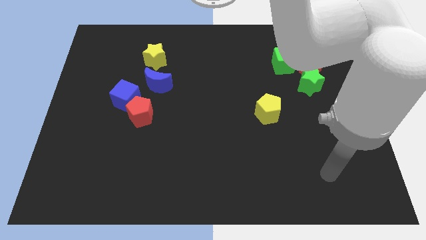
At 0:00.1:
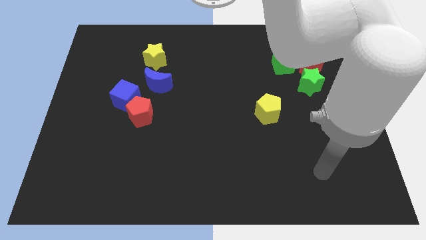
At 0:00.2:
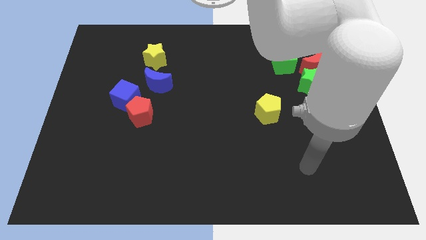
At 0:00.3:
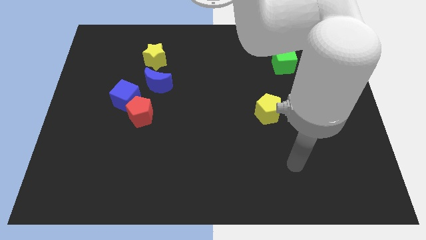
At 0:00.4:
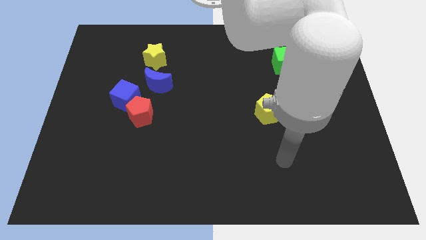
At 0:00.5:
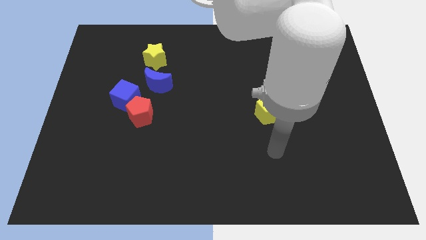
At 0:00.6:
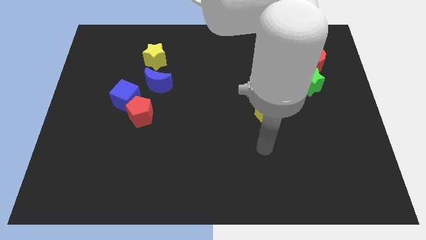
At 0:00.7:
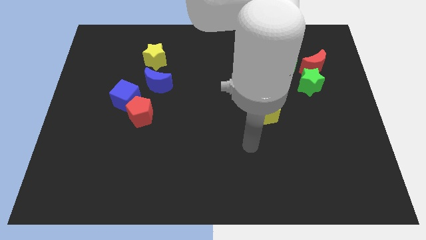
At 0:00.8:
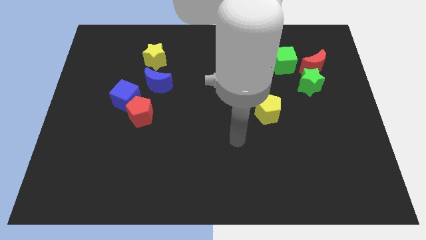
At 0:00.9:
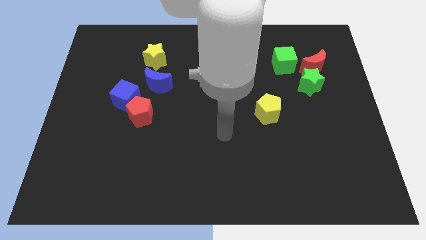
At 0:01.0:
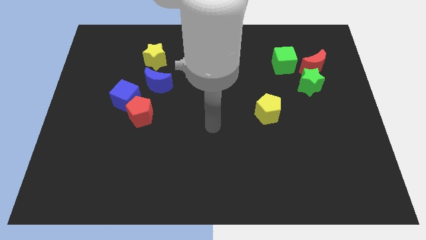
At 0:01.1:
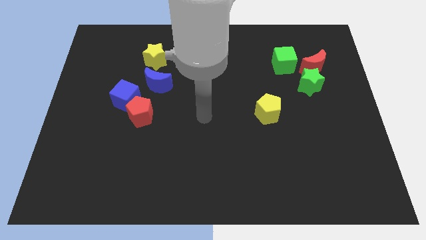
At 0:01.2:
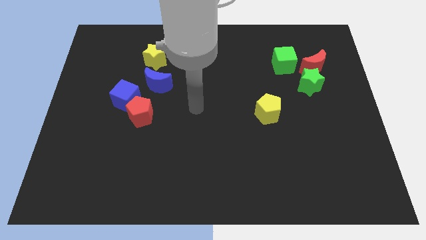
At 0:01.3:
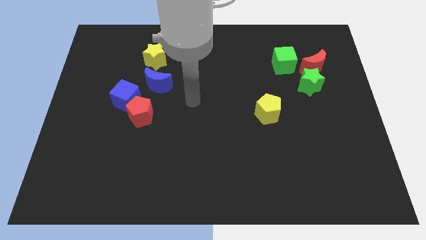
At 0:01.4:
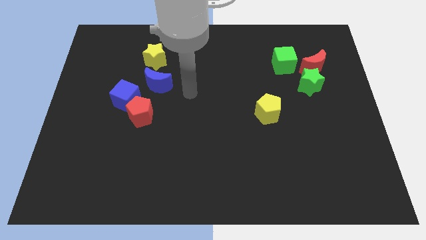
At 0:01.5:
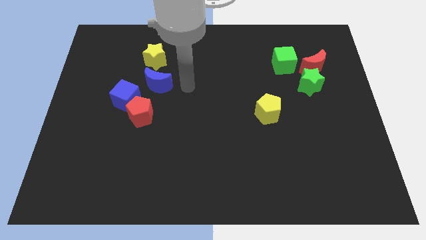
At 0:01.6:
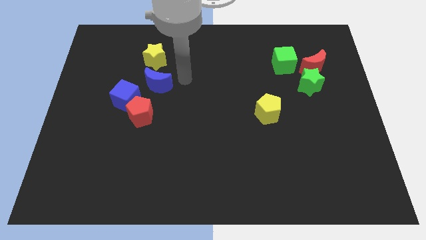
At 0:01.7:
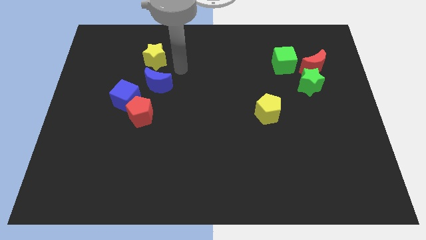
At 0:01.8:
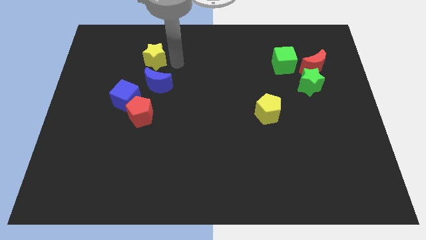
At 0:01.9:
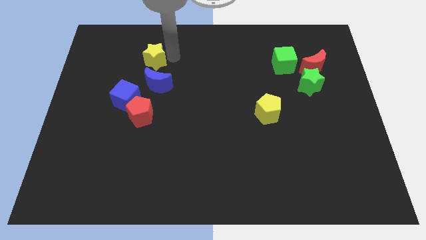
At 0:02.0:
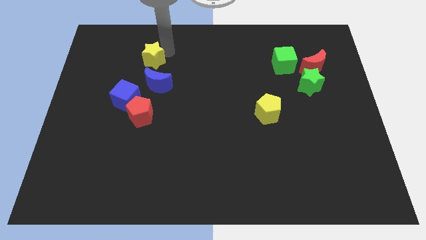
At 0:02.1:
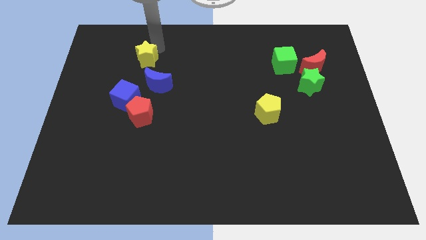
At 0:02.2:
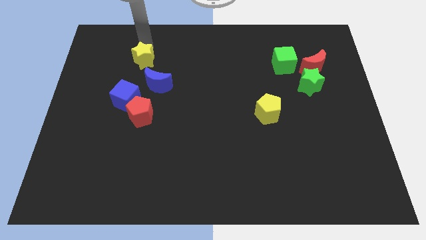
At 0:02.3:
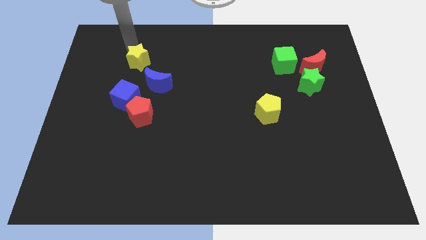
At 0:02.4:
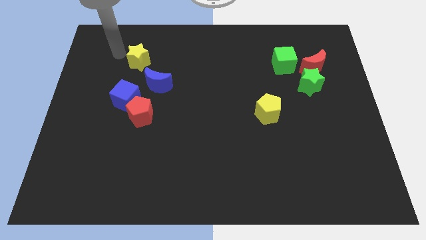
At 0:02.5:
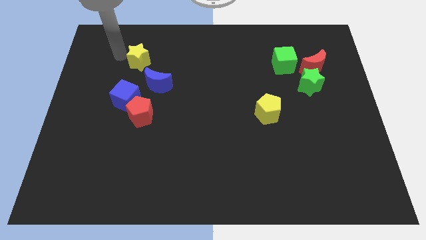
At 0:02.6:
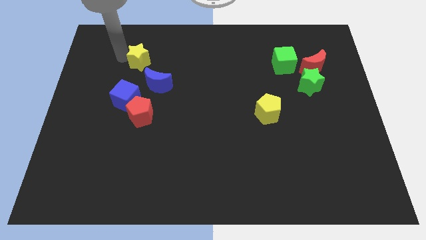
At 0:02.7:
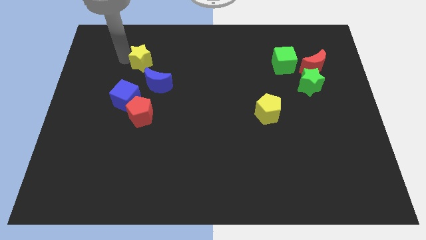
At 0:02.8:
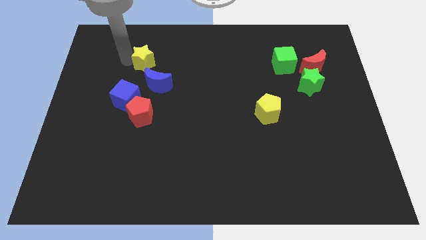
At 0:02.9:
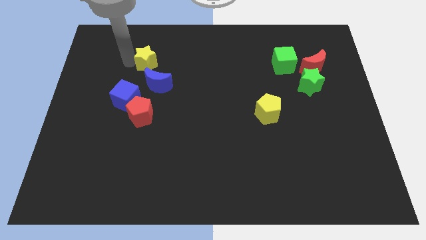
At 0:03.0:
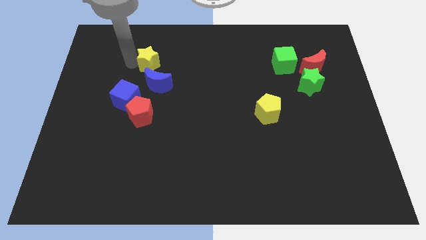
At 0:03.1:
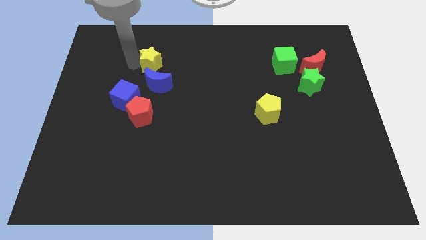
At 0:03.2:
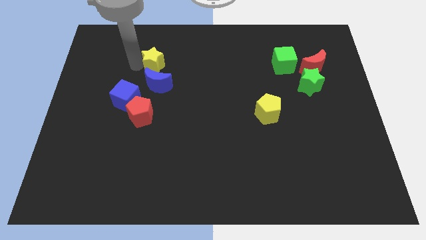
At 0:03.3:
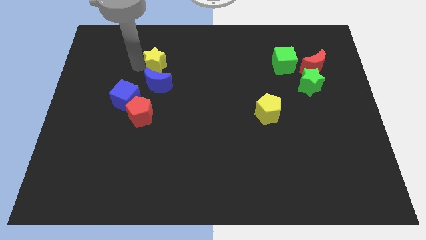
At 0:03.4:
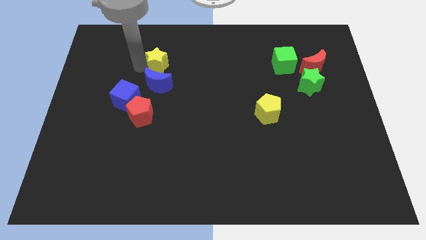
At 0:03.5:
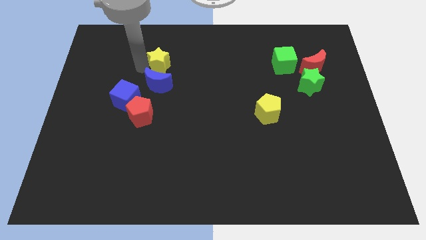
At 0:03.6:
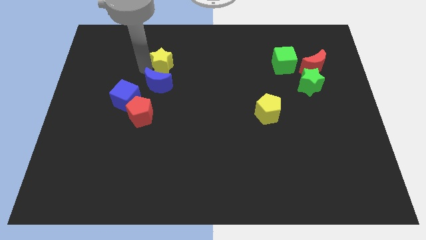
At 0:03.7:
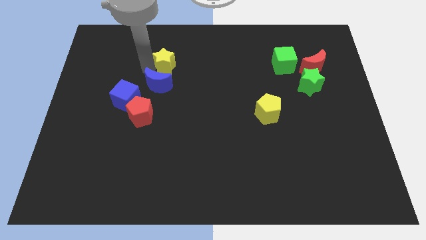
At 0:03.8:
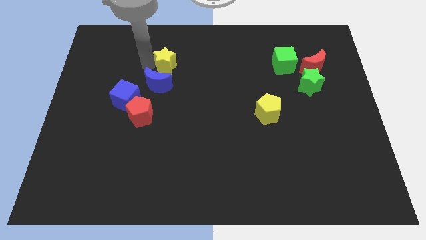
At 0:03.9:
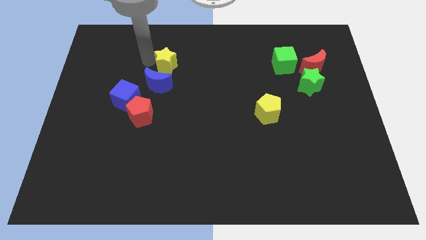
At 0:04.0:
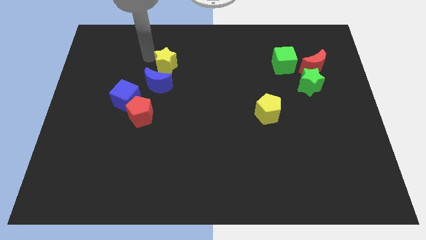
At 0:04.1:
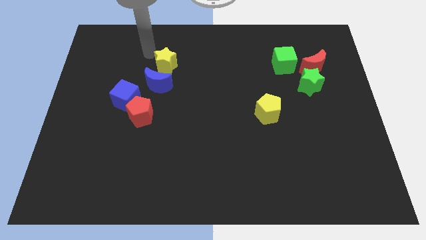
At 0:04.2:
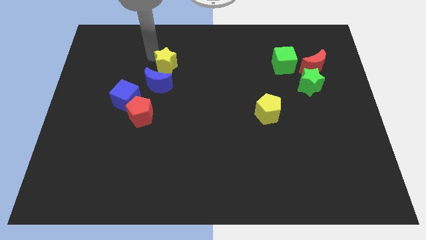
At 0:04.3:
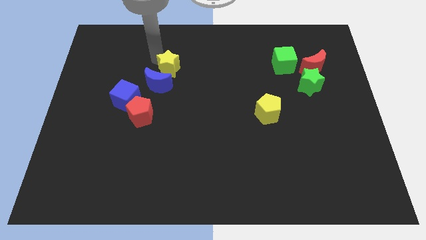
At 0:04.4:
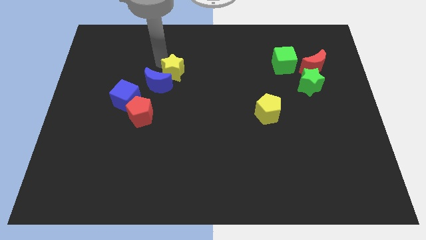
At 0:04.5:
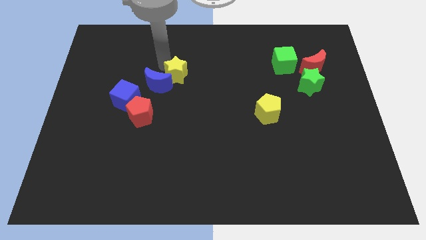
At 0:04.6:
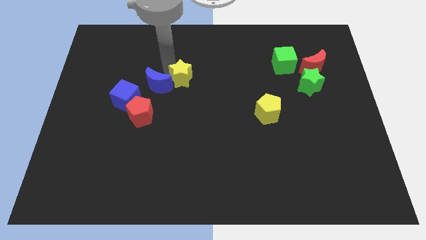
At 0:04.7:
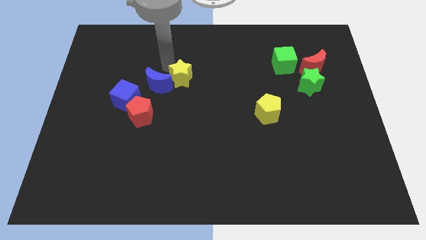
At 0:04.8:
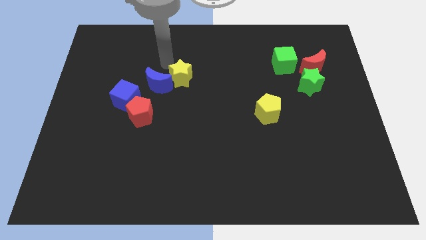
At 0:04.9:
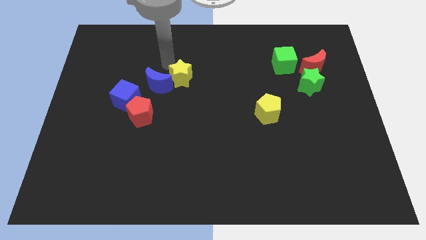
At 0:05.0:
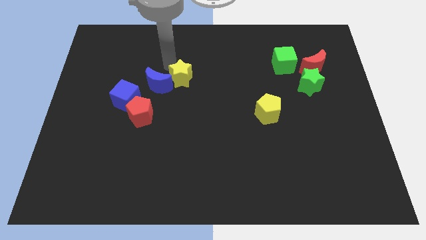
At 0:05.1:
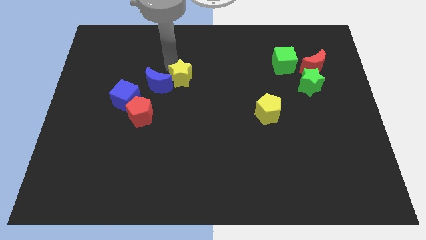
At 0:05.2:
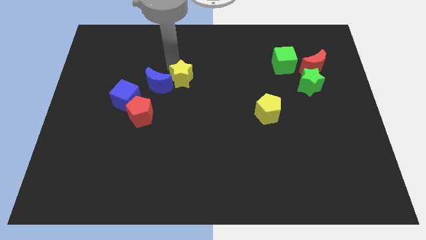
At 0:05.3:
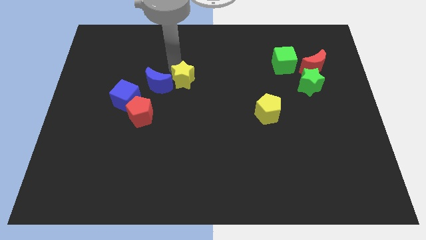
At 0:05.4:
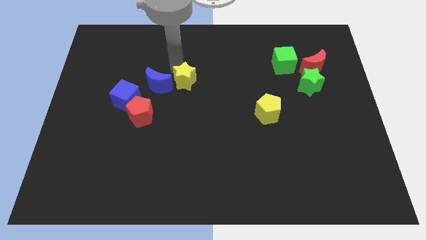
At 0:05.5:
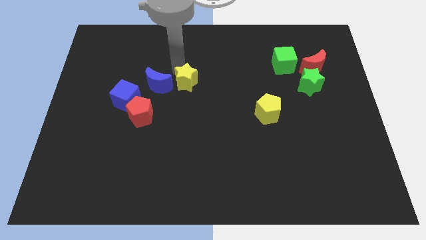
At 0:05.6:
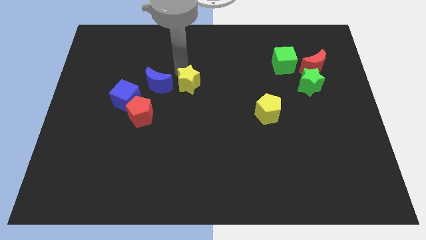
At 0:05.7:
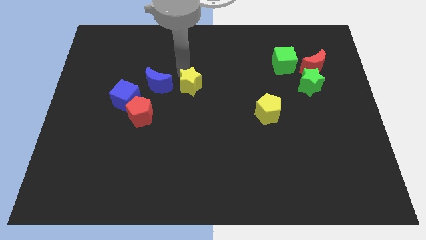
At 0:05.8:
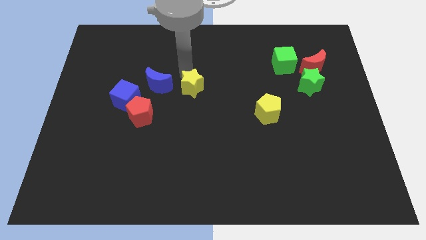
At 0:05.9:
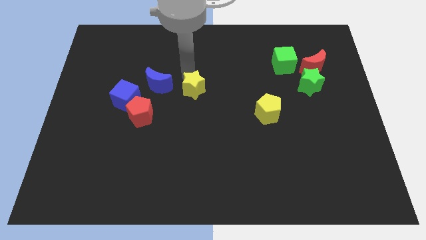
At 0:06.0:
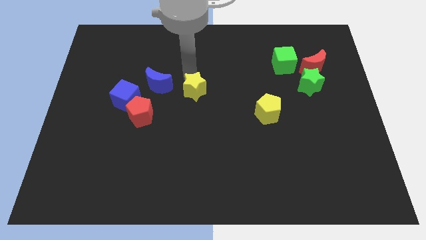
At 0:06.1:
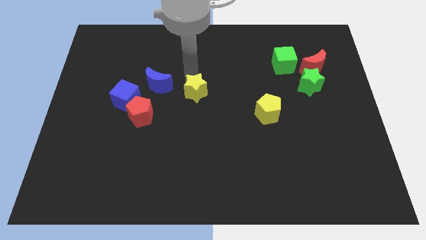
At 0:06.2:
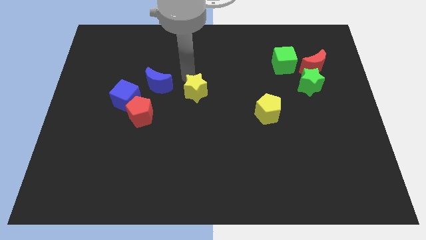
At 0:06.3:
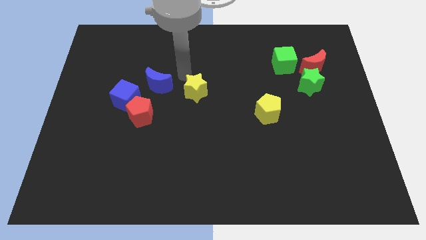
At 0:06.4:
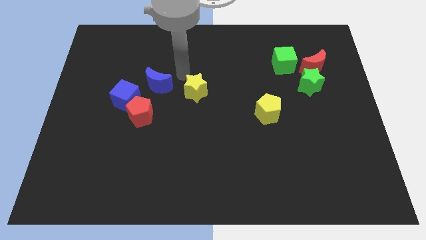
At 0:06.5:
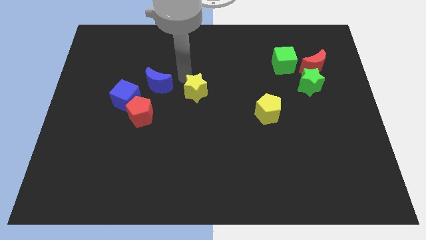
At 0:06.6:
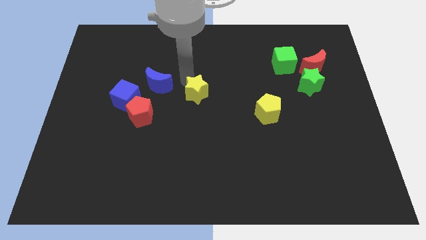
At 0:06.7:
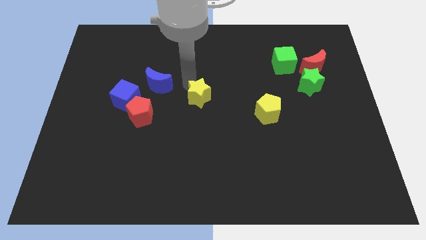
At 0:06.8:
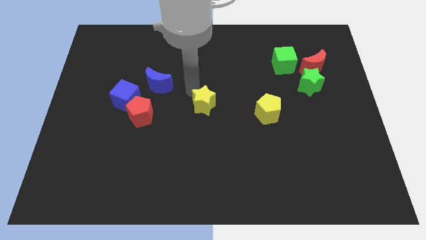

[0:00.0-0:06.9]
move the yellow star down and to the right diagonally

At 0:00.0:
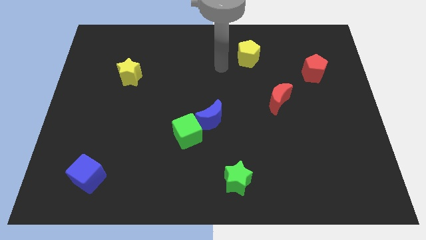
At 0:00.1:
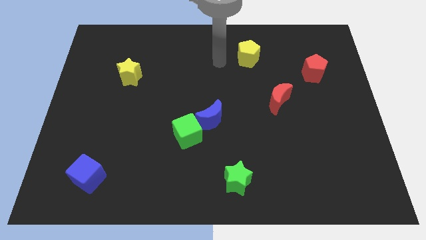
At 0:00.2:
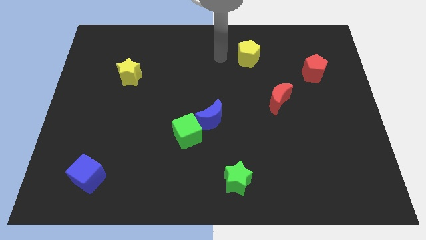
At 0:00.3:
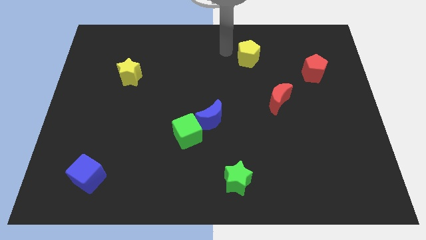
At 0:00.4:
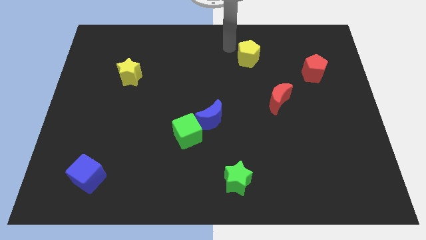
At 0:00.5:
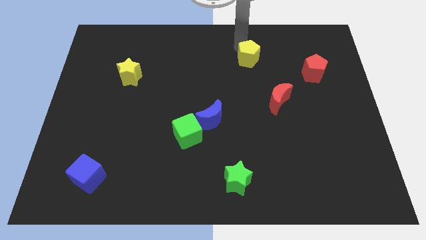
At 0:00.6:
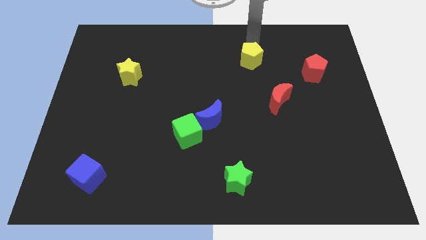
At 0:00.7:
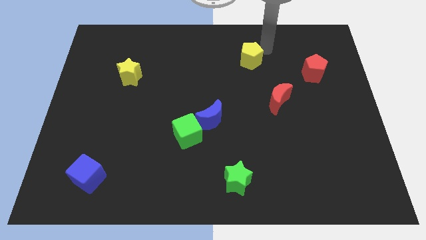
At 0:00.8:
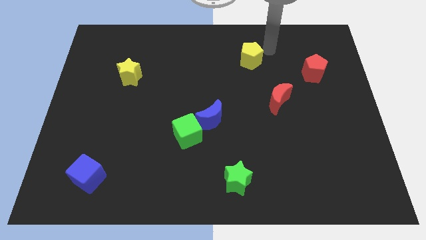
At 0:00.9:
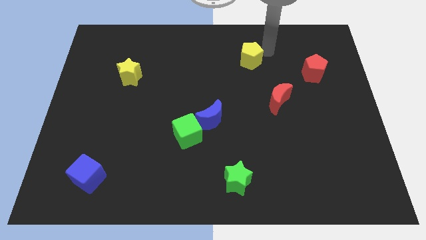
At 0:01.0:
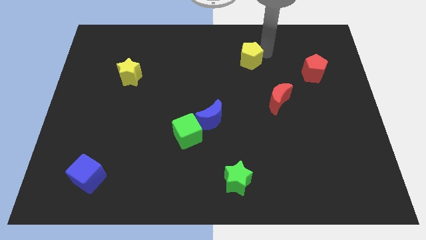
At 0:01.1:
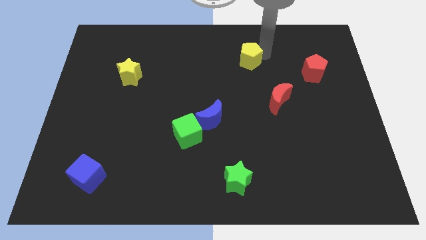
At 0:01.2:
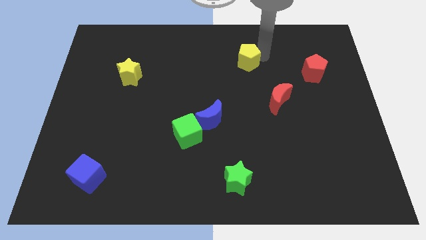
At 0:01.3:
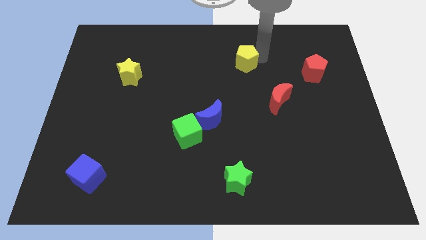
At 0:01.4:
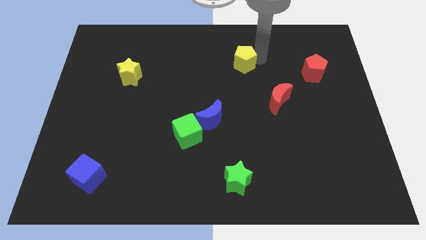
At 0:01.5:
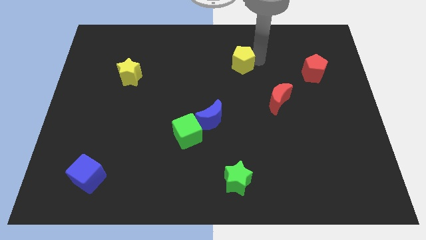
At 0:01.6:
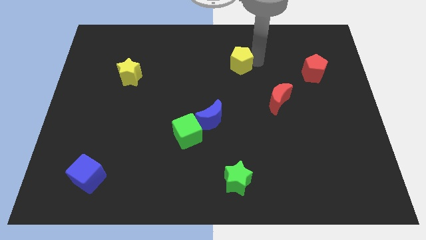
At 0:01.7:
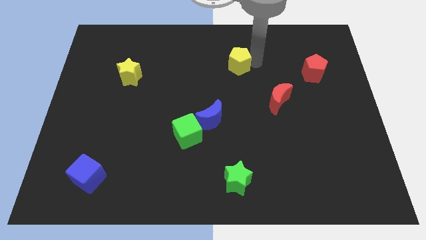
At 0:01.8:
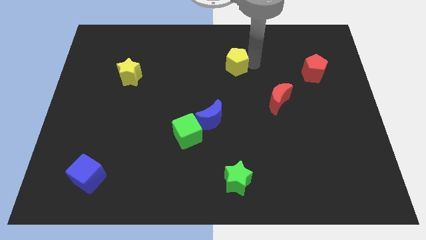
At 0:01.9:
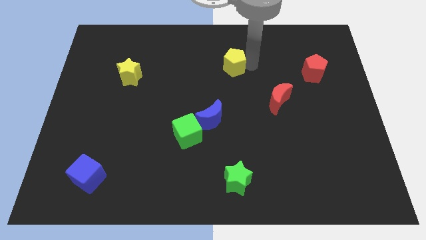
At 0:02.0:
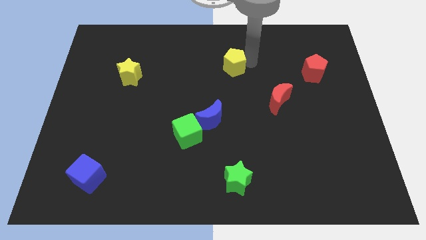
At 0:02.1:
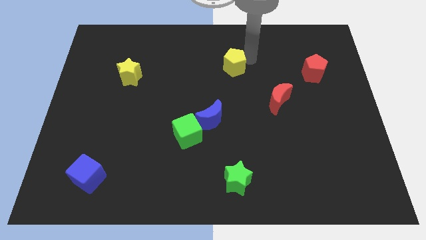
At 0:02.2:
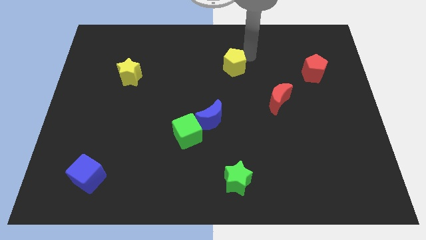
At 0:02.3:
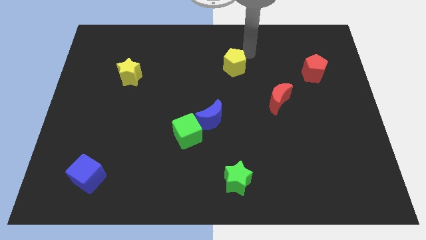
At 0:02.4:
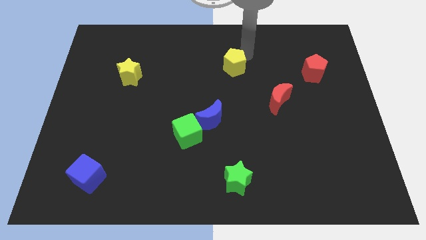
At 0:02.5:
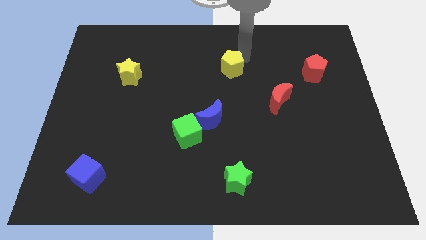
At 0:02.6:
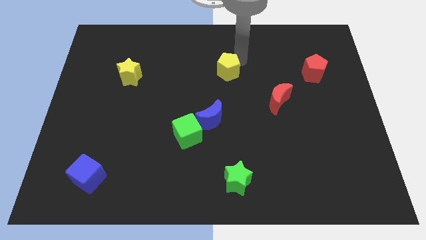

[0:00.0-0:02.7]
push the yellow pentagon a little down and to the left diagonally
